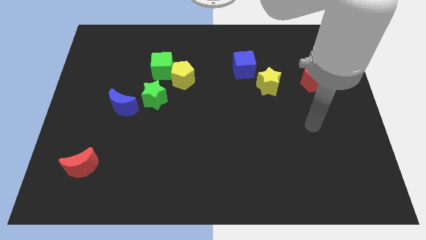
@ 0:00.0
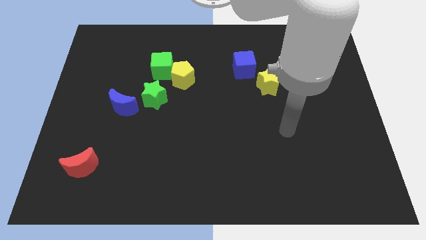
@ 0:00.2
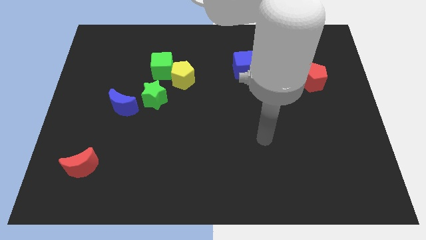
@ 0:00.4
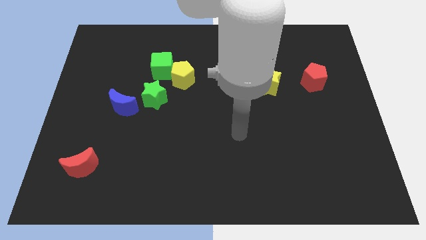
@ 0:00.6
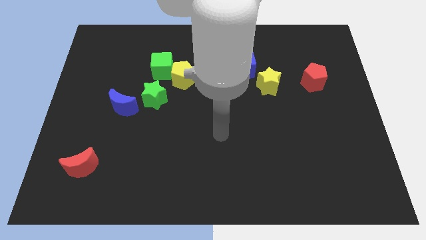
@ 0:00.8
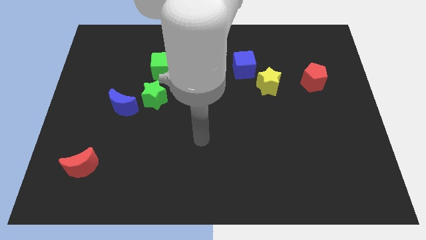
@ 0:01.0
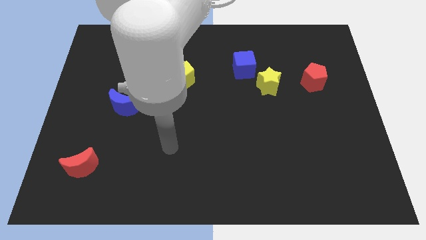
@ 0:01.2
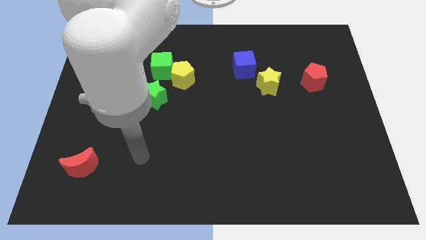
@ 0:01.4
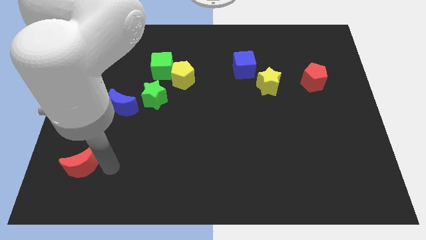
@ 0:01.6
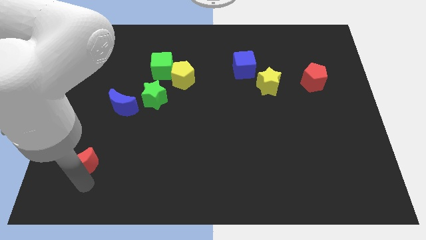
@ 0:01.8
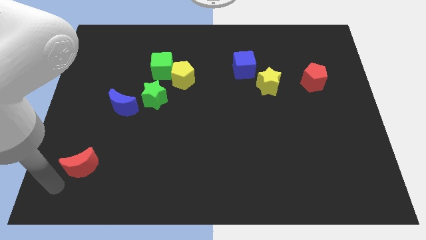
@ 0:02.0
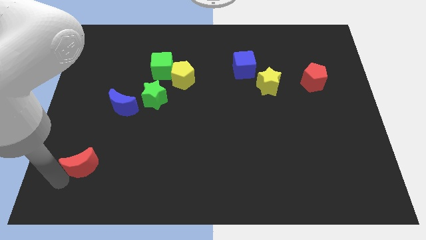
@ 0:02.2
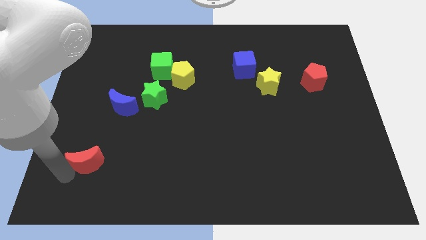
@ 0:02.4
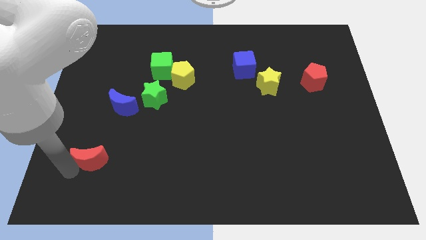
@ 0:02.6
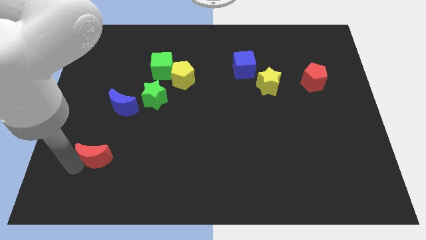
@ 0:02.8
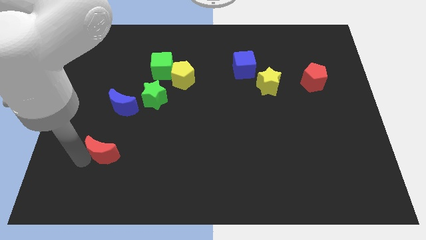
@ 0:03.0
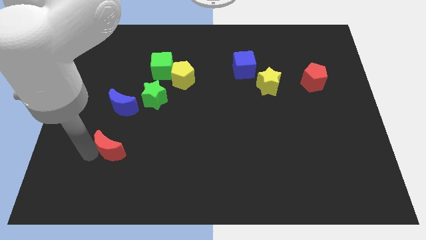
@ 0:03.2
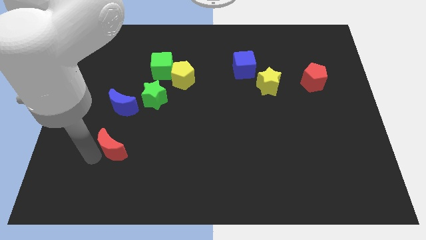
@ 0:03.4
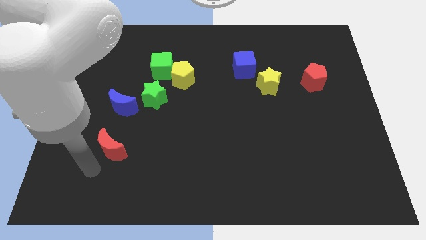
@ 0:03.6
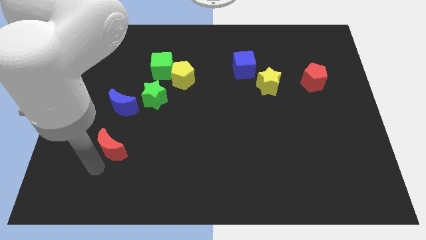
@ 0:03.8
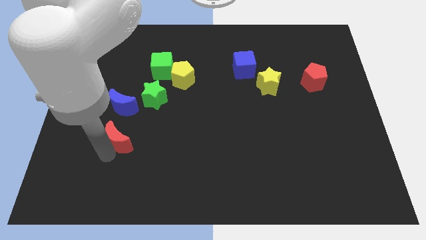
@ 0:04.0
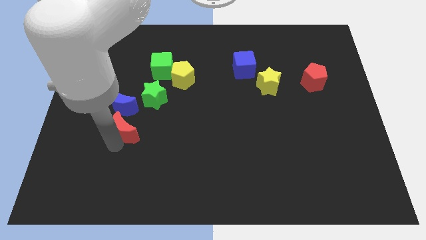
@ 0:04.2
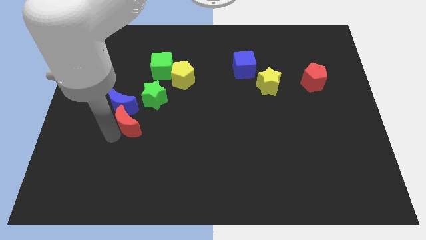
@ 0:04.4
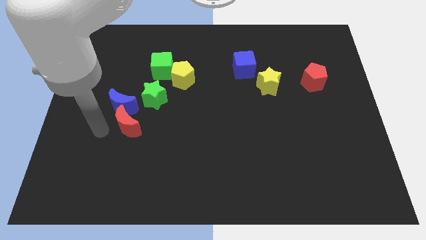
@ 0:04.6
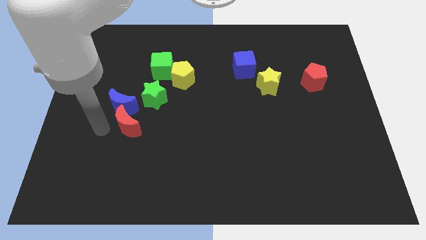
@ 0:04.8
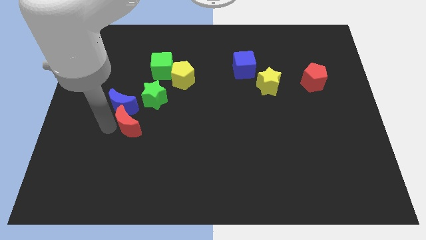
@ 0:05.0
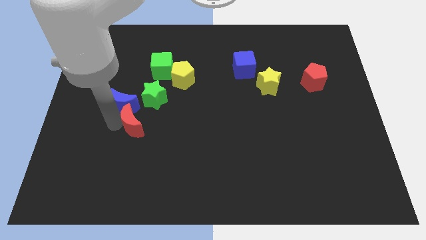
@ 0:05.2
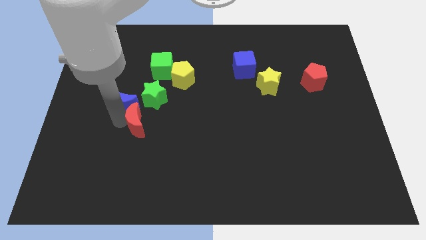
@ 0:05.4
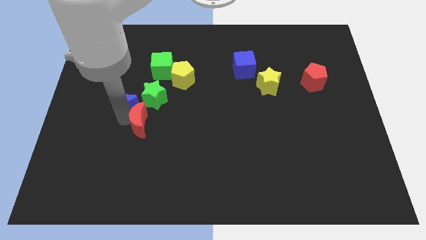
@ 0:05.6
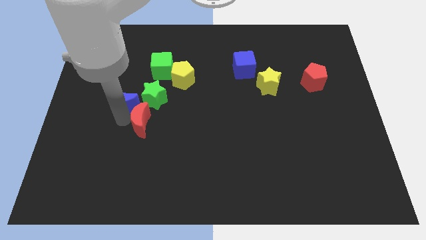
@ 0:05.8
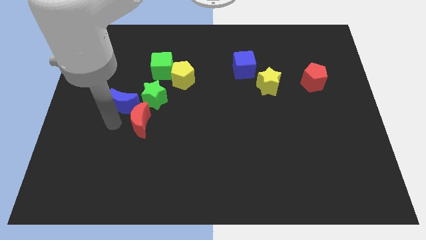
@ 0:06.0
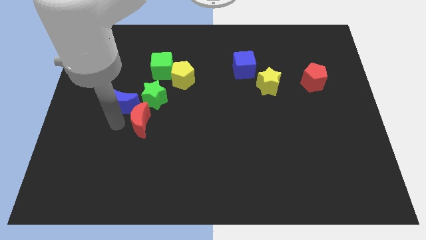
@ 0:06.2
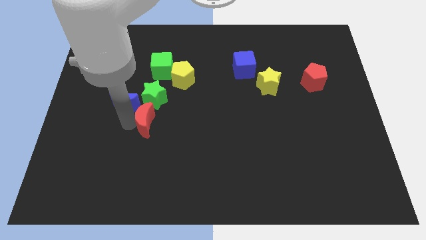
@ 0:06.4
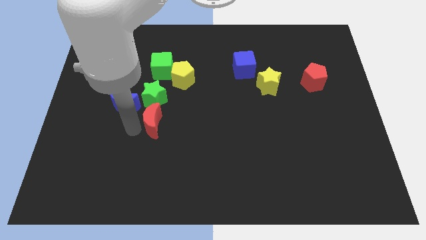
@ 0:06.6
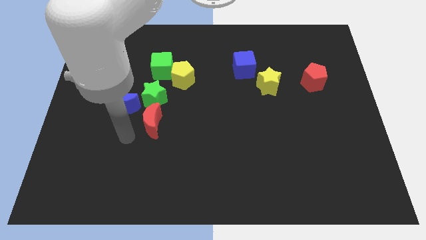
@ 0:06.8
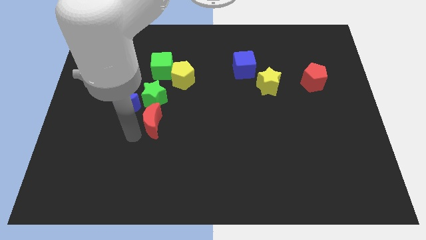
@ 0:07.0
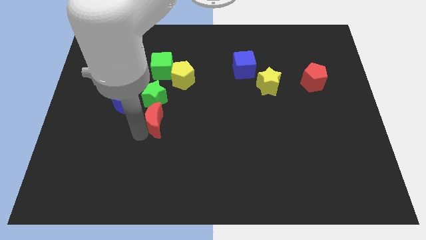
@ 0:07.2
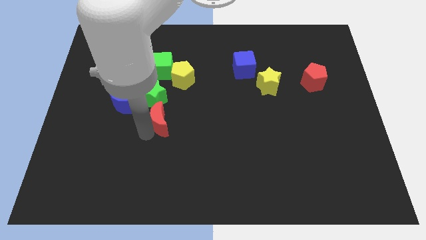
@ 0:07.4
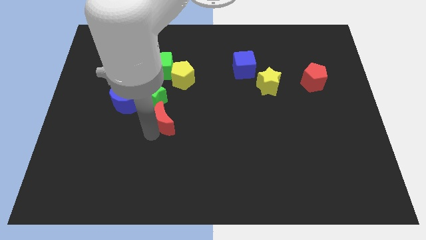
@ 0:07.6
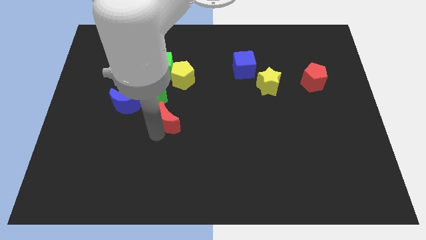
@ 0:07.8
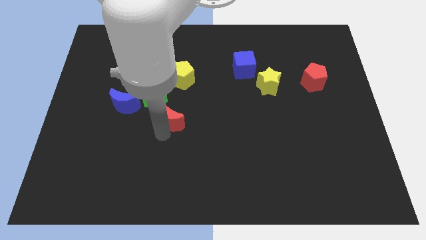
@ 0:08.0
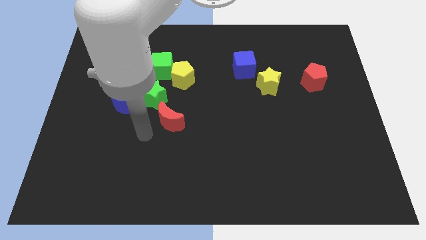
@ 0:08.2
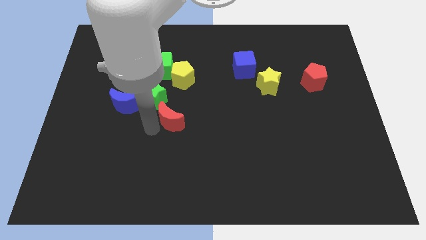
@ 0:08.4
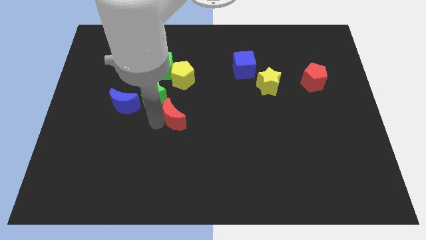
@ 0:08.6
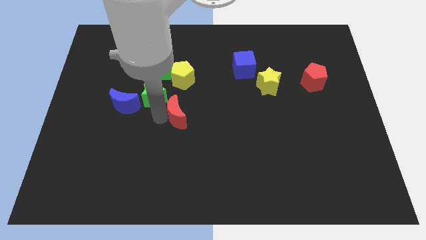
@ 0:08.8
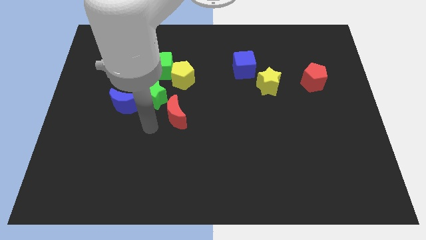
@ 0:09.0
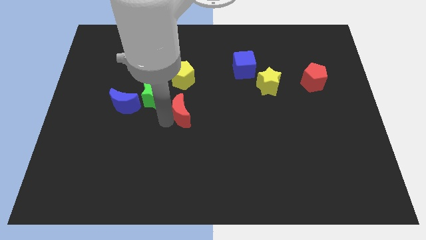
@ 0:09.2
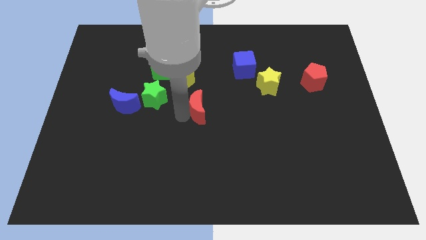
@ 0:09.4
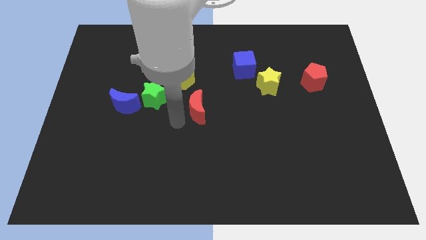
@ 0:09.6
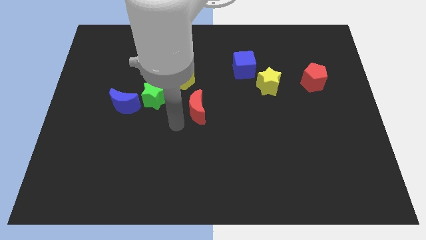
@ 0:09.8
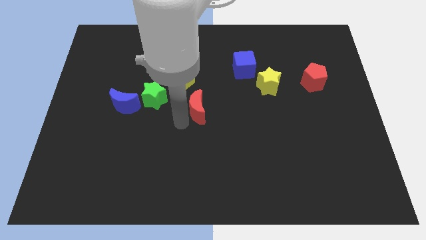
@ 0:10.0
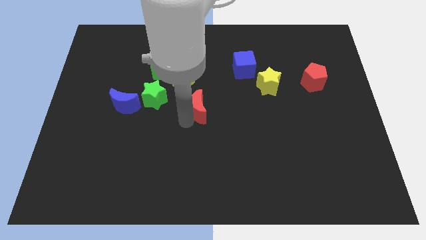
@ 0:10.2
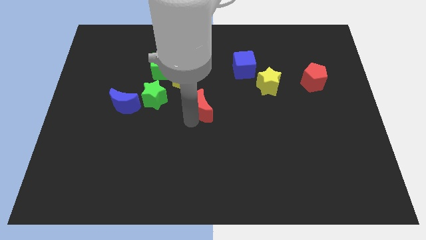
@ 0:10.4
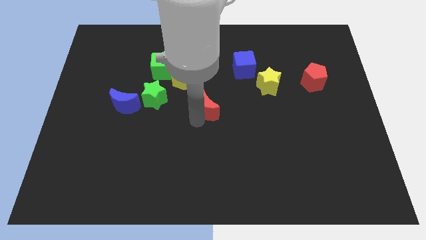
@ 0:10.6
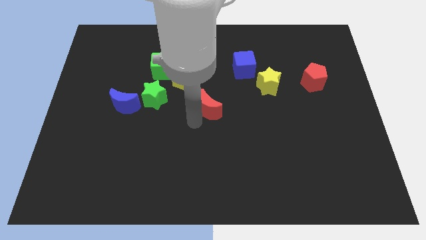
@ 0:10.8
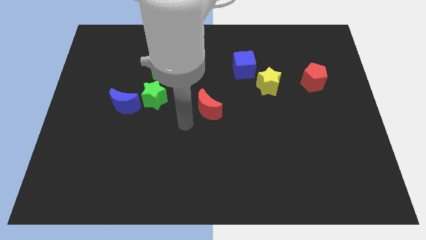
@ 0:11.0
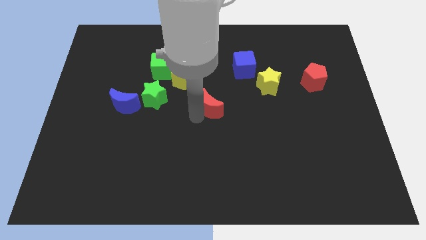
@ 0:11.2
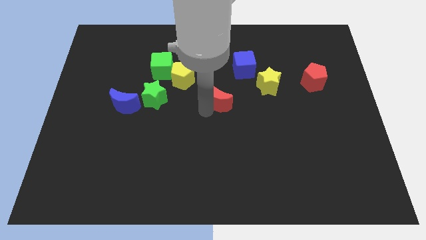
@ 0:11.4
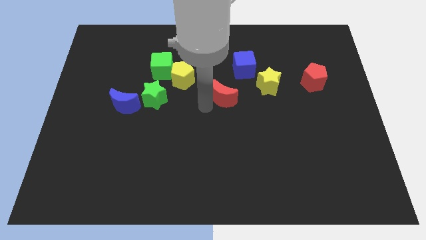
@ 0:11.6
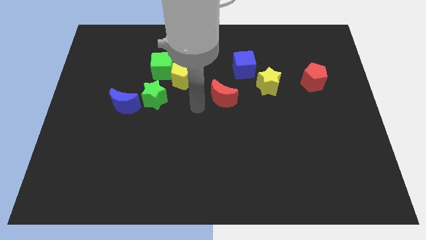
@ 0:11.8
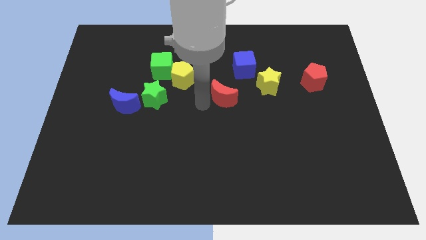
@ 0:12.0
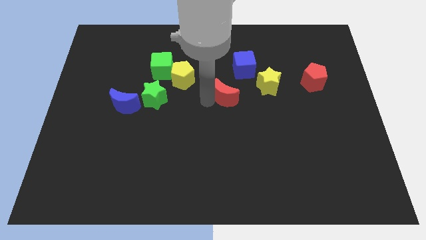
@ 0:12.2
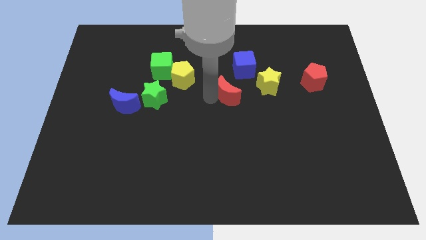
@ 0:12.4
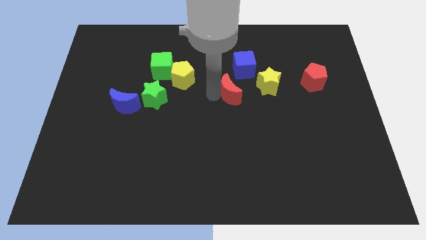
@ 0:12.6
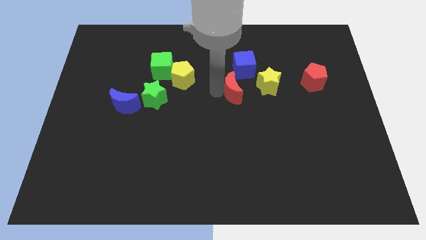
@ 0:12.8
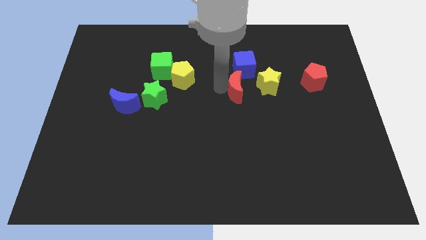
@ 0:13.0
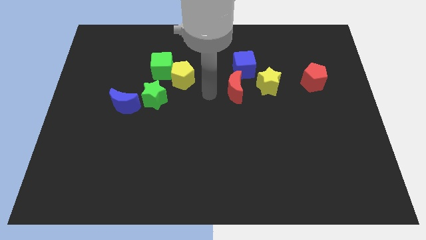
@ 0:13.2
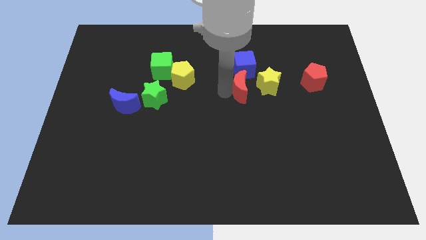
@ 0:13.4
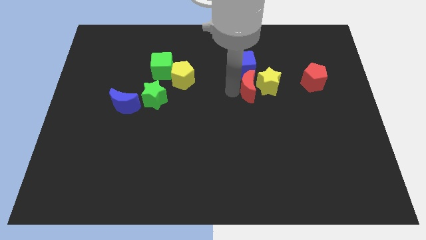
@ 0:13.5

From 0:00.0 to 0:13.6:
put the red moon to the yellow star

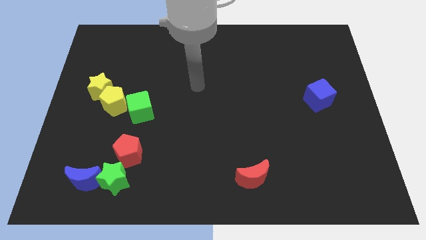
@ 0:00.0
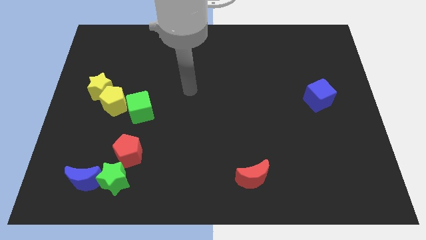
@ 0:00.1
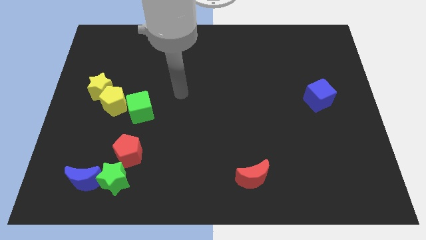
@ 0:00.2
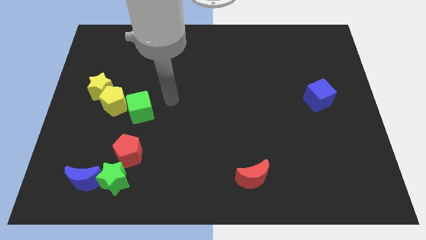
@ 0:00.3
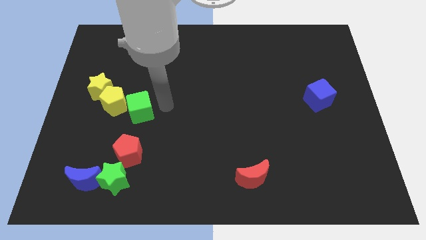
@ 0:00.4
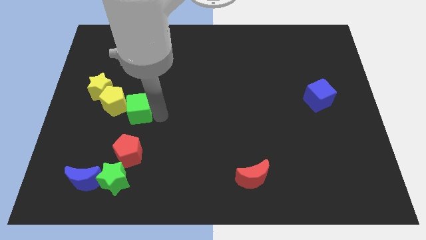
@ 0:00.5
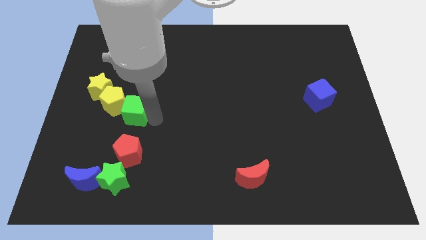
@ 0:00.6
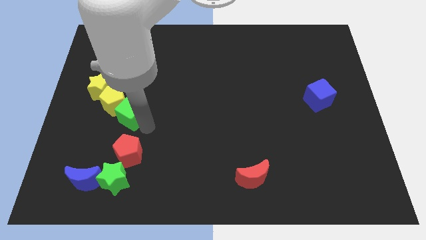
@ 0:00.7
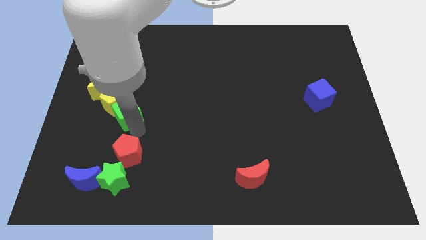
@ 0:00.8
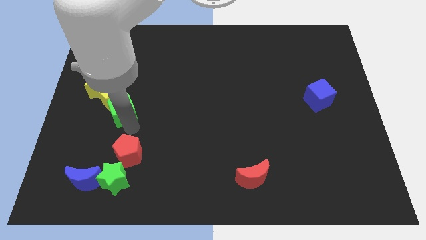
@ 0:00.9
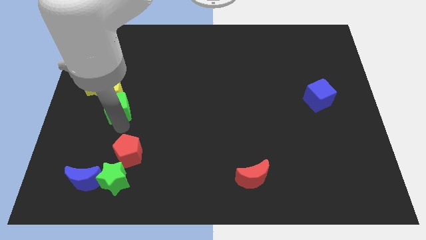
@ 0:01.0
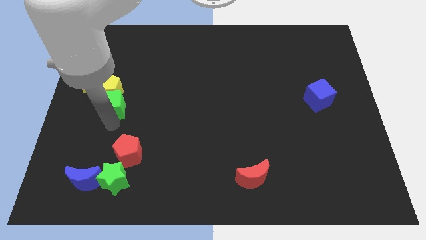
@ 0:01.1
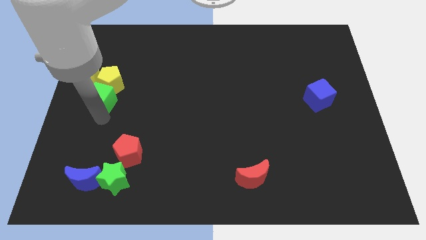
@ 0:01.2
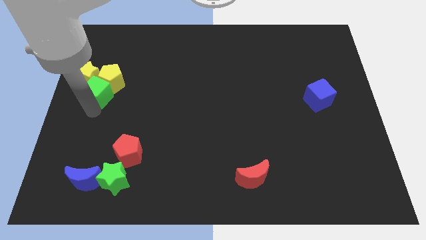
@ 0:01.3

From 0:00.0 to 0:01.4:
put the yellow star to the green cube
